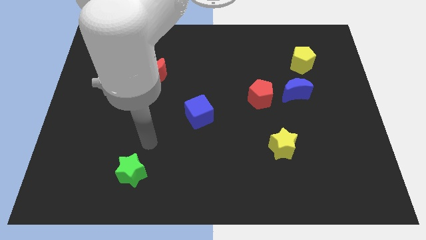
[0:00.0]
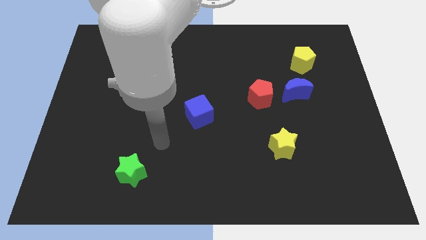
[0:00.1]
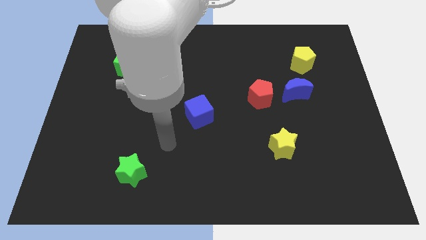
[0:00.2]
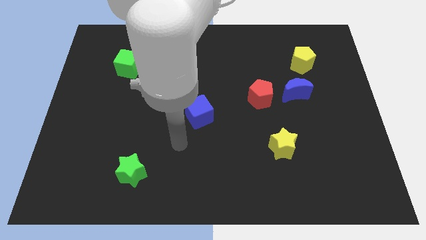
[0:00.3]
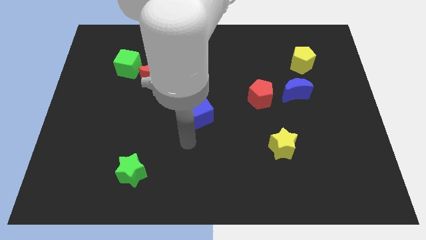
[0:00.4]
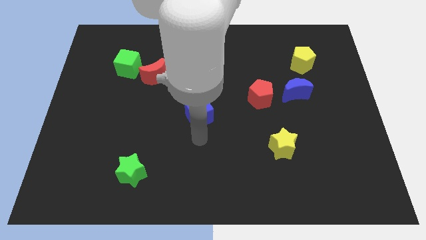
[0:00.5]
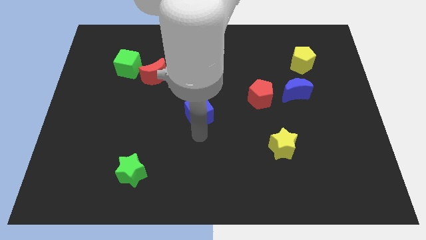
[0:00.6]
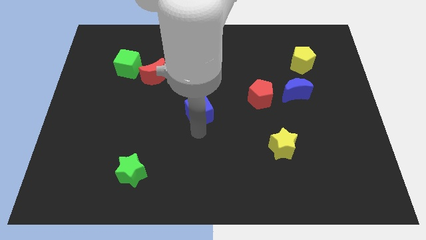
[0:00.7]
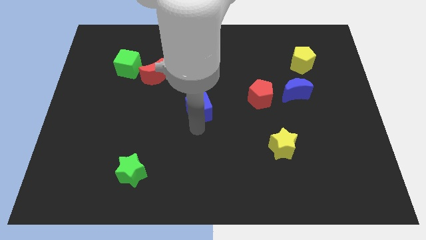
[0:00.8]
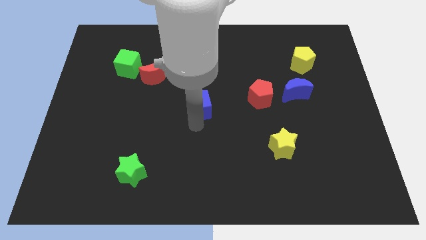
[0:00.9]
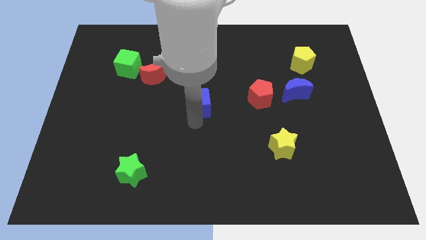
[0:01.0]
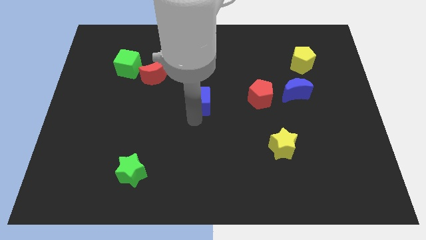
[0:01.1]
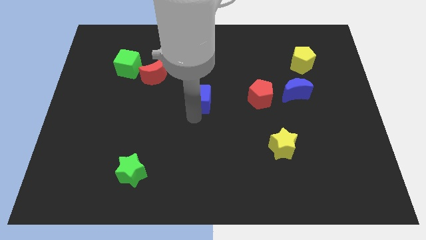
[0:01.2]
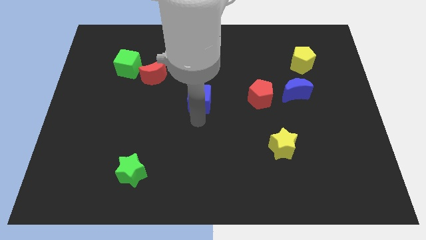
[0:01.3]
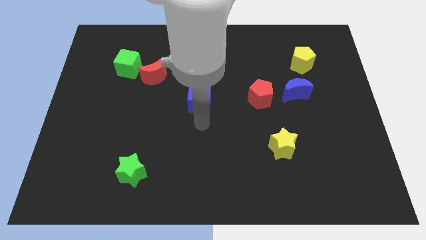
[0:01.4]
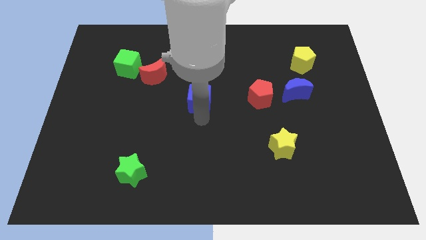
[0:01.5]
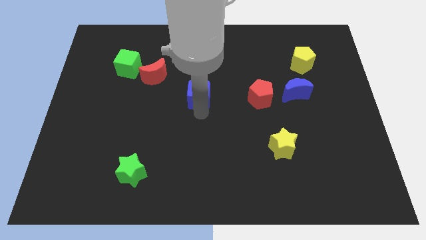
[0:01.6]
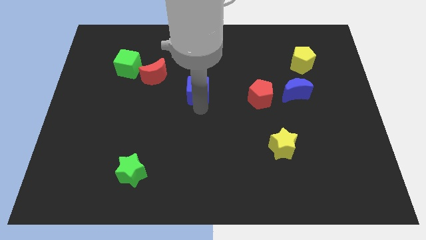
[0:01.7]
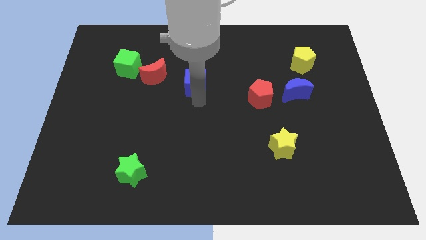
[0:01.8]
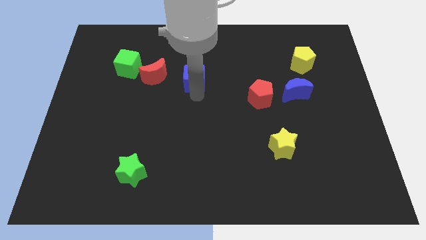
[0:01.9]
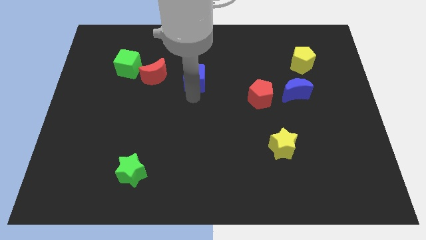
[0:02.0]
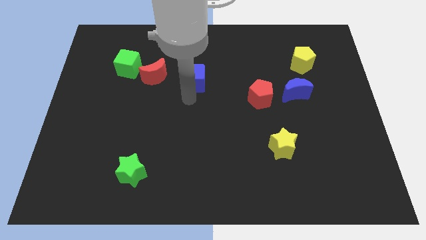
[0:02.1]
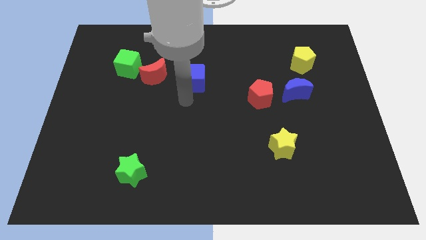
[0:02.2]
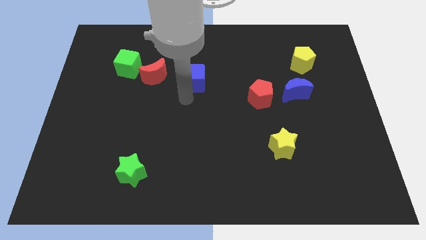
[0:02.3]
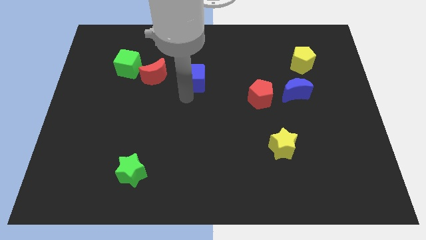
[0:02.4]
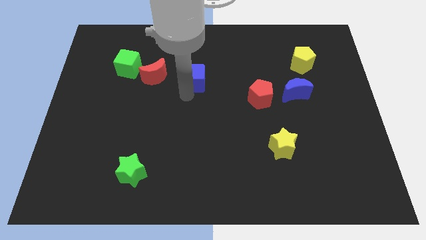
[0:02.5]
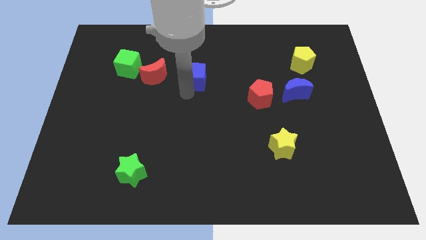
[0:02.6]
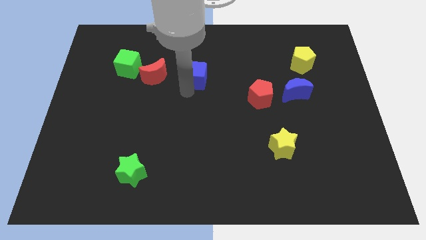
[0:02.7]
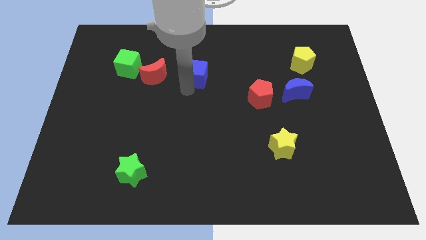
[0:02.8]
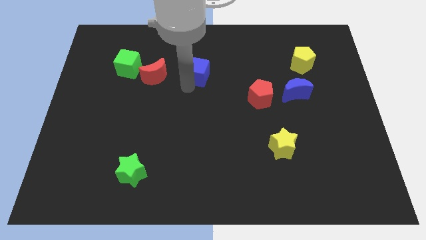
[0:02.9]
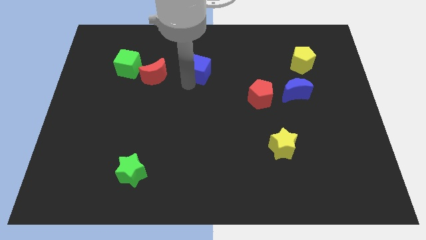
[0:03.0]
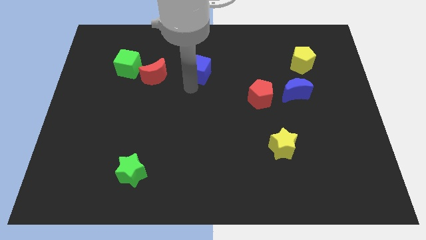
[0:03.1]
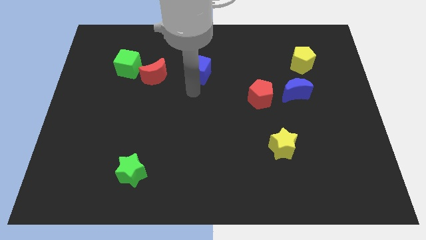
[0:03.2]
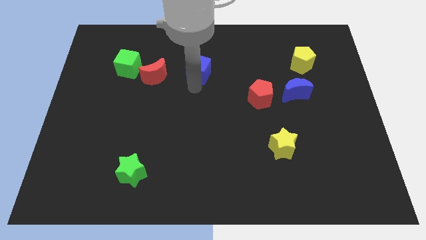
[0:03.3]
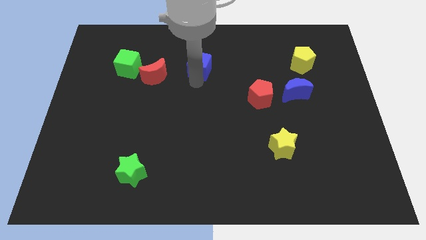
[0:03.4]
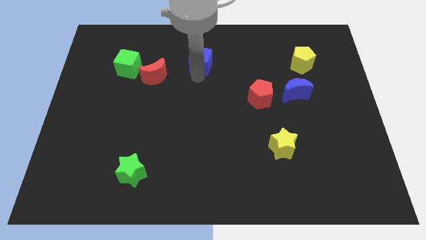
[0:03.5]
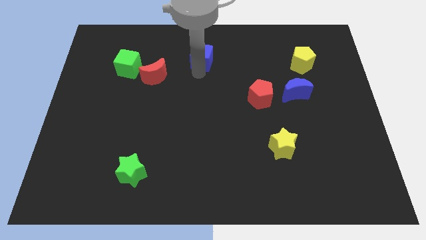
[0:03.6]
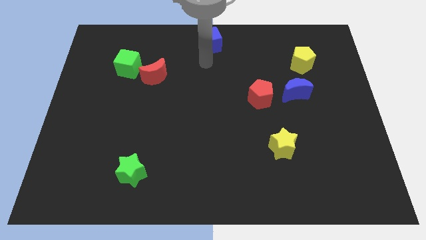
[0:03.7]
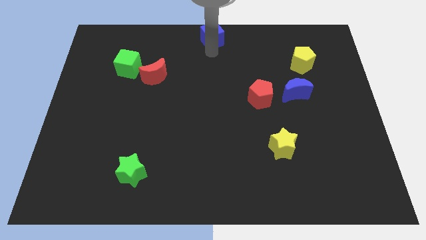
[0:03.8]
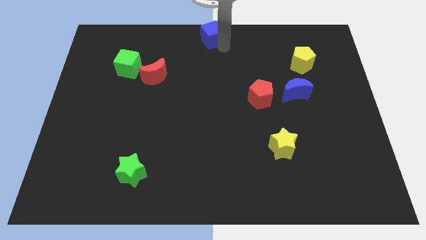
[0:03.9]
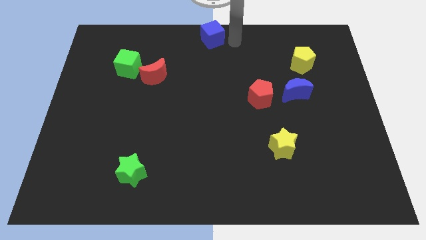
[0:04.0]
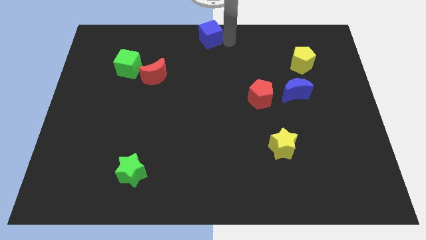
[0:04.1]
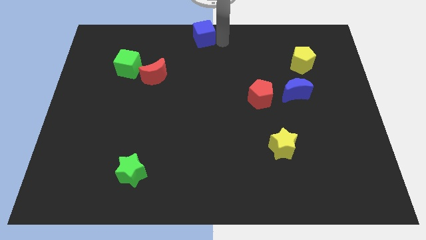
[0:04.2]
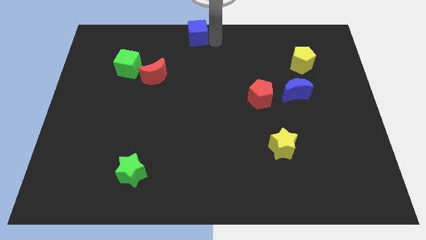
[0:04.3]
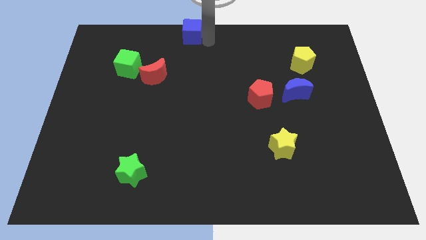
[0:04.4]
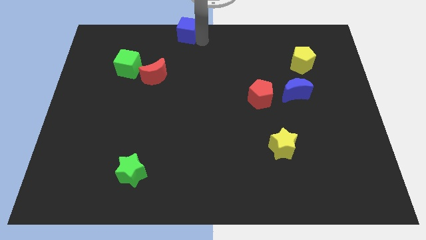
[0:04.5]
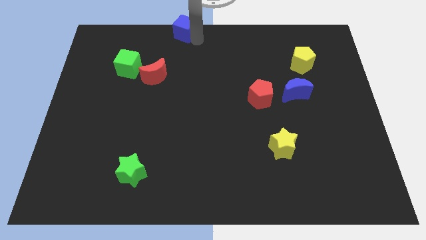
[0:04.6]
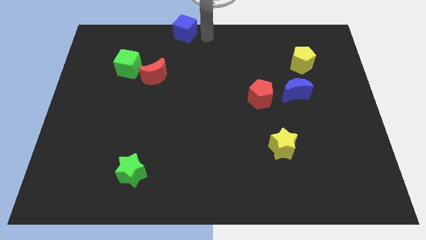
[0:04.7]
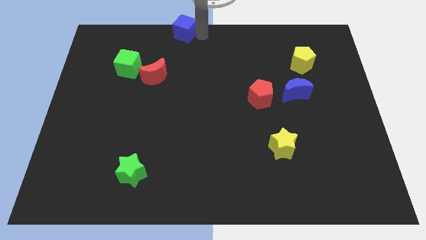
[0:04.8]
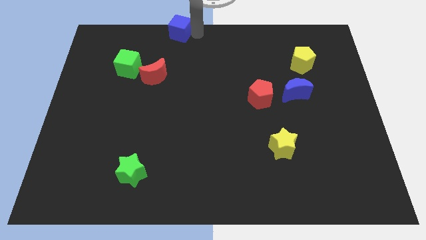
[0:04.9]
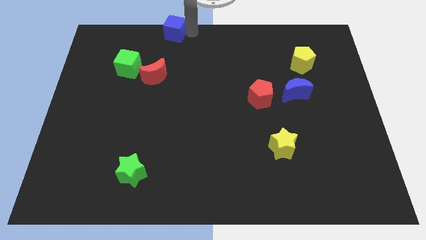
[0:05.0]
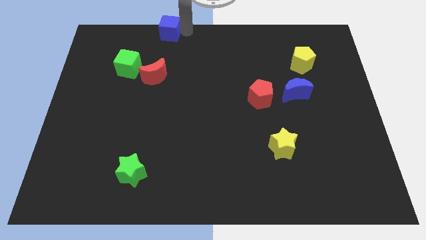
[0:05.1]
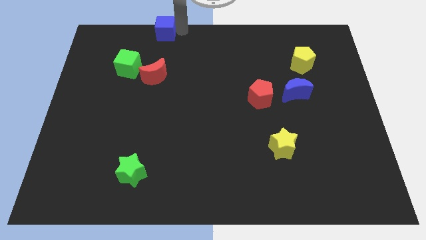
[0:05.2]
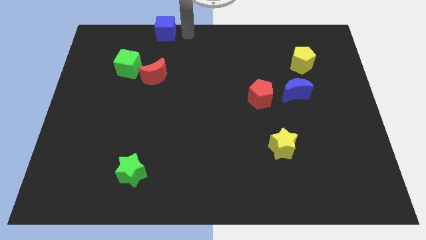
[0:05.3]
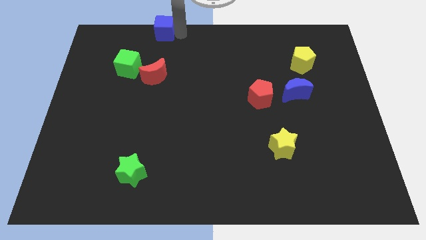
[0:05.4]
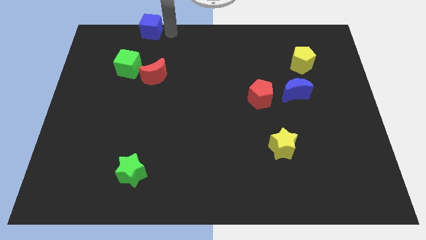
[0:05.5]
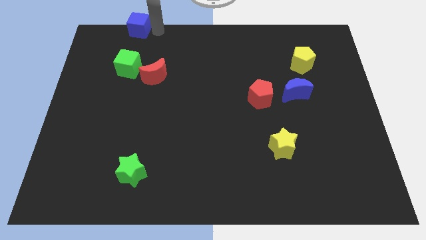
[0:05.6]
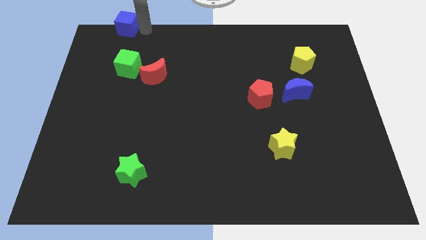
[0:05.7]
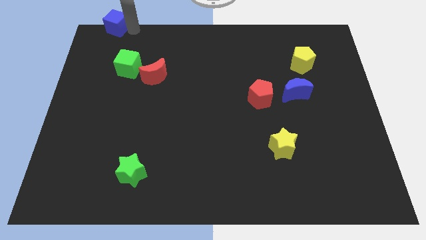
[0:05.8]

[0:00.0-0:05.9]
put the blue cube to the top left

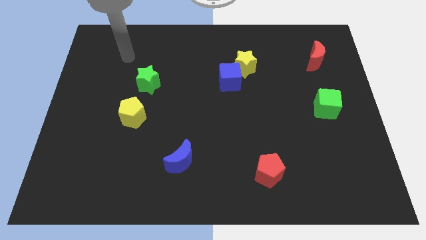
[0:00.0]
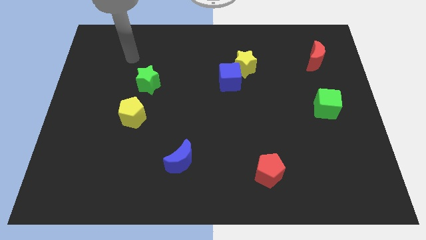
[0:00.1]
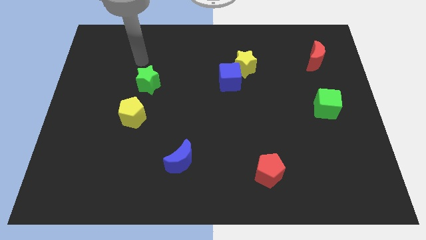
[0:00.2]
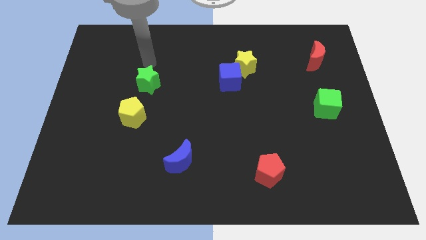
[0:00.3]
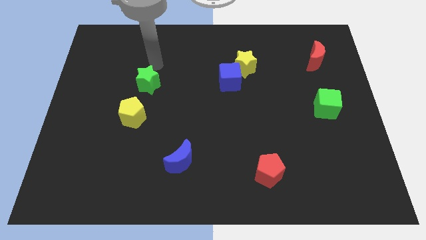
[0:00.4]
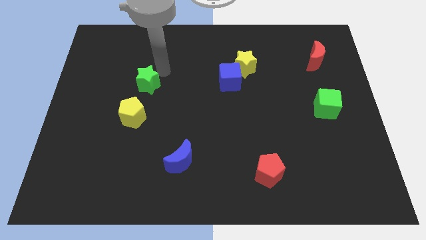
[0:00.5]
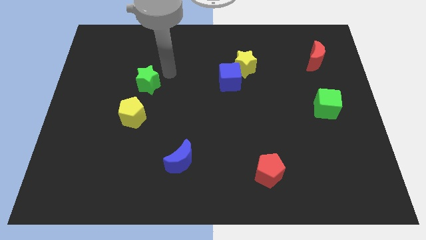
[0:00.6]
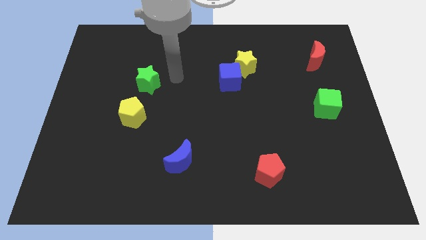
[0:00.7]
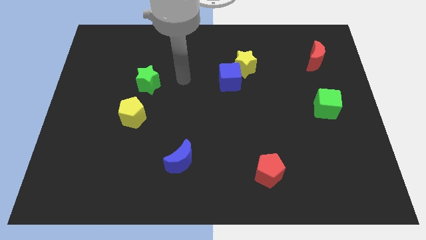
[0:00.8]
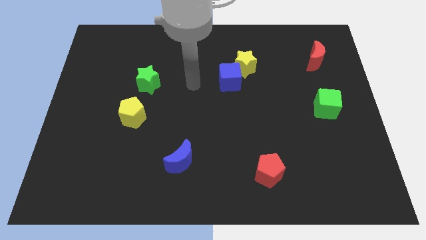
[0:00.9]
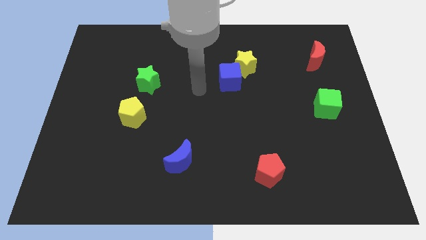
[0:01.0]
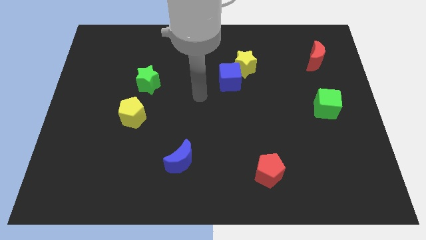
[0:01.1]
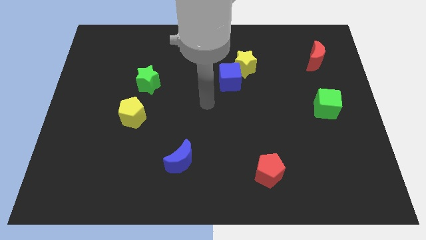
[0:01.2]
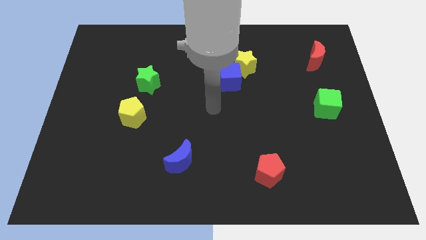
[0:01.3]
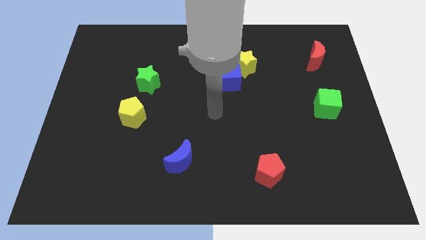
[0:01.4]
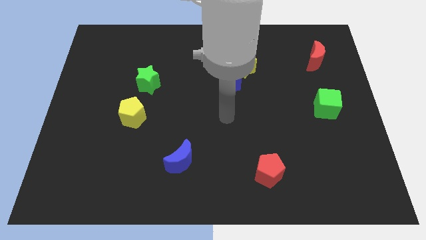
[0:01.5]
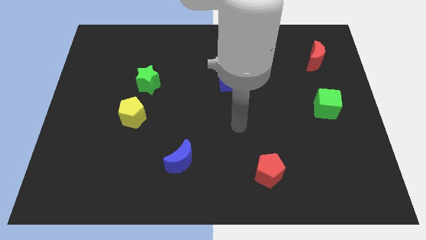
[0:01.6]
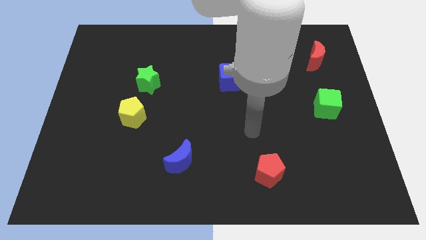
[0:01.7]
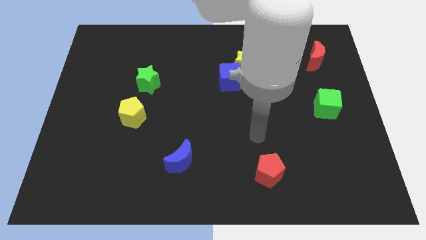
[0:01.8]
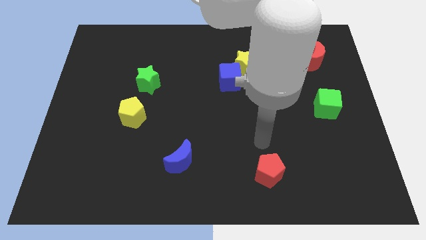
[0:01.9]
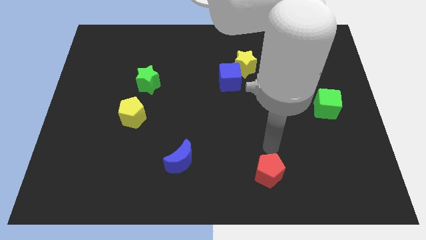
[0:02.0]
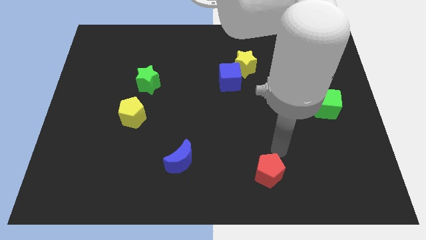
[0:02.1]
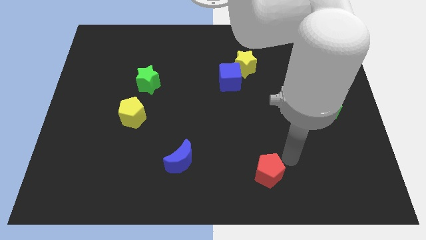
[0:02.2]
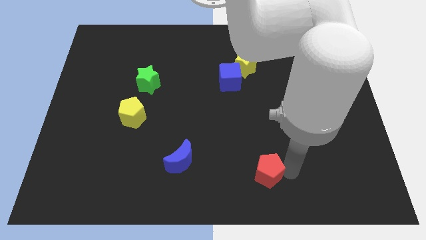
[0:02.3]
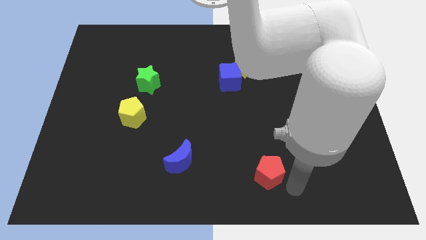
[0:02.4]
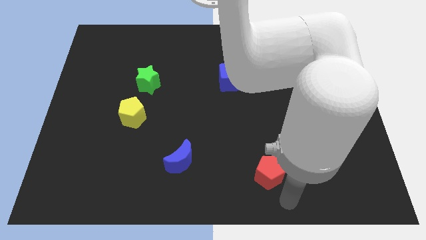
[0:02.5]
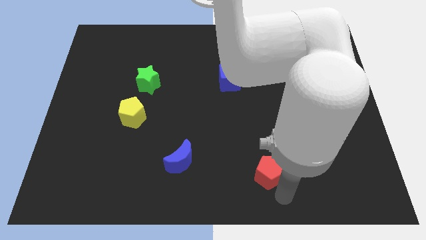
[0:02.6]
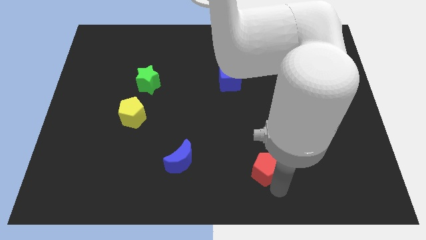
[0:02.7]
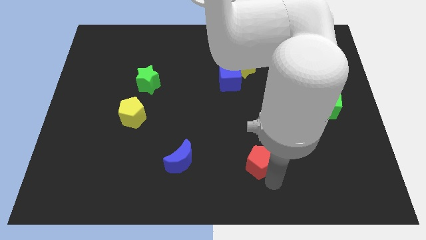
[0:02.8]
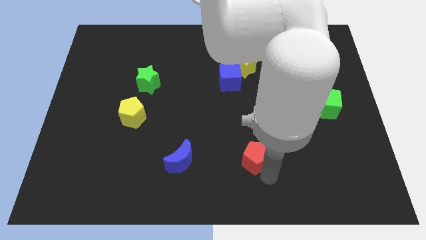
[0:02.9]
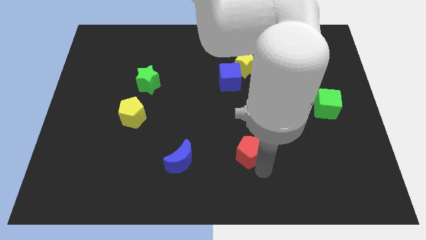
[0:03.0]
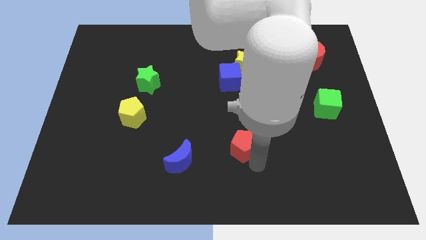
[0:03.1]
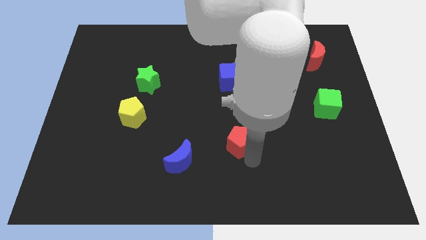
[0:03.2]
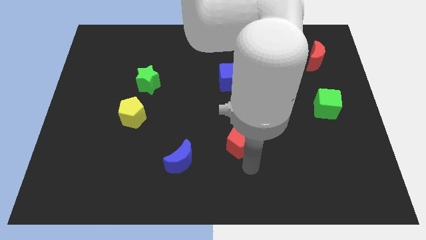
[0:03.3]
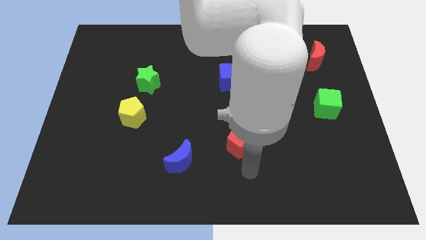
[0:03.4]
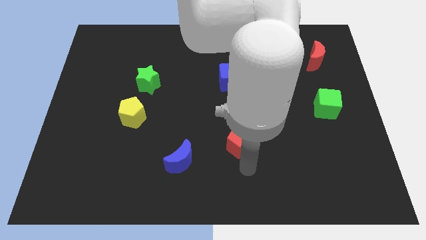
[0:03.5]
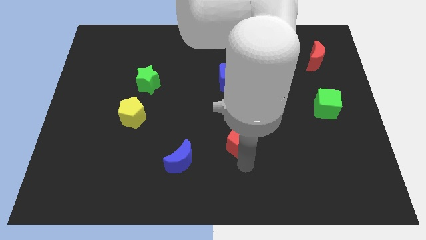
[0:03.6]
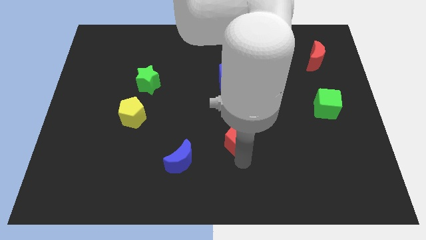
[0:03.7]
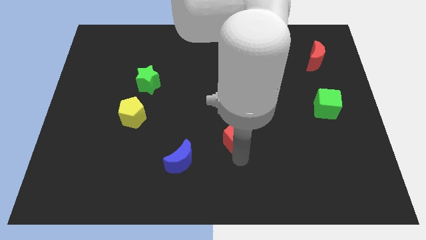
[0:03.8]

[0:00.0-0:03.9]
push the red pentagon to the center of the board
